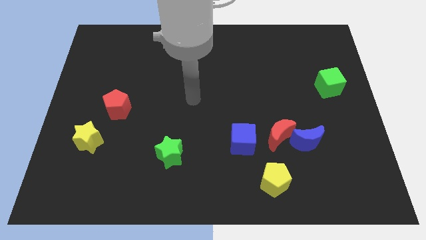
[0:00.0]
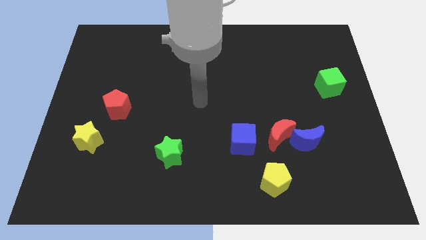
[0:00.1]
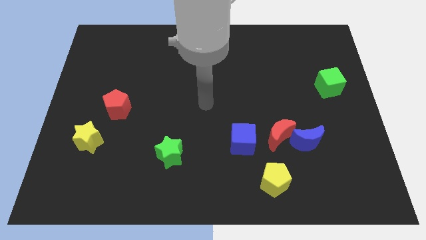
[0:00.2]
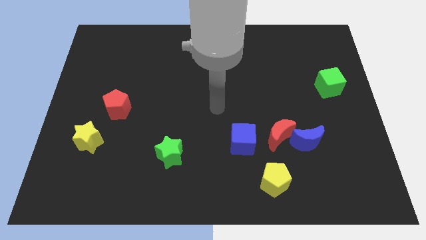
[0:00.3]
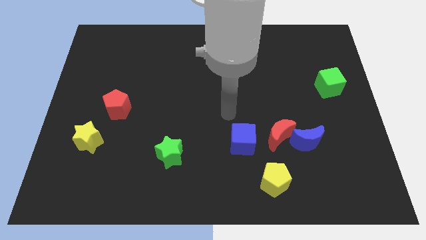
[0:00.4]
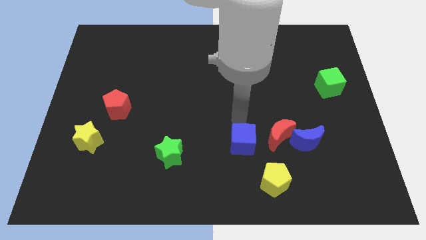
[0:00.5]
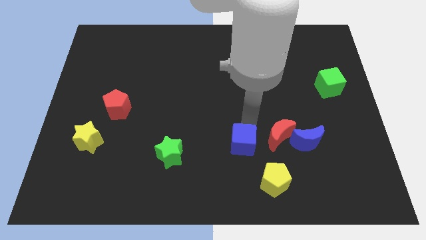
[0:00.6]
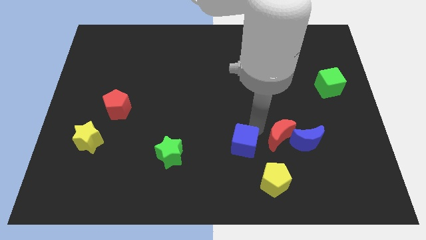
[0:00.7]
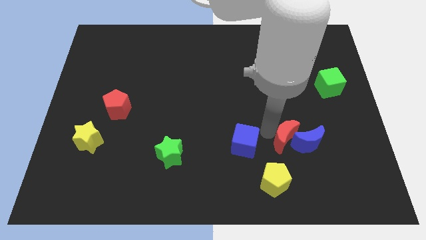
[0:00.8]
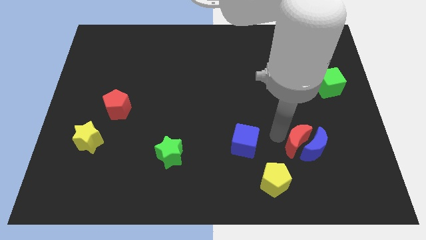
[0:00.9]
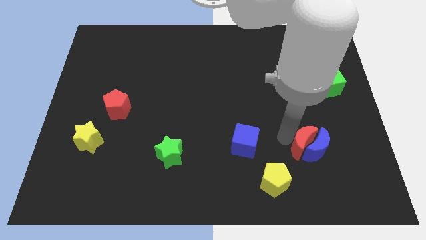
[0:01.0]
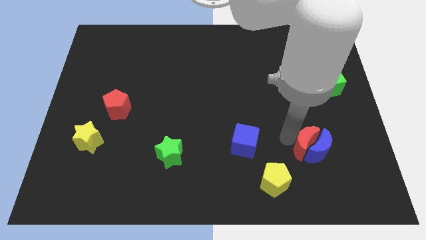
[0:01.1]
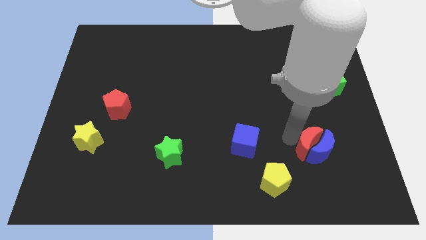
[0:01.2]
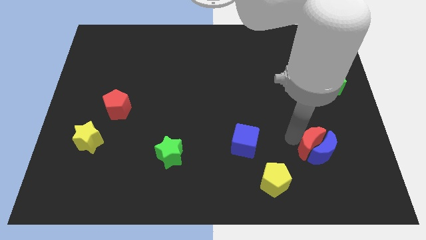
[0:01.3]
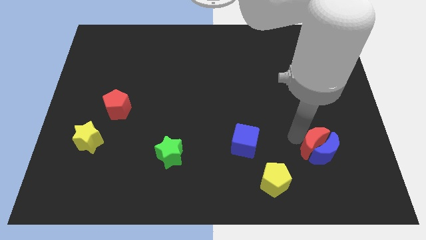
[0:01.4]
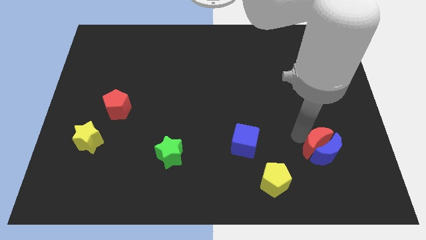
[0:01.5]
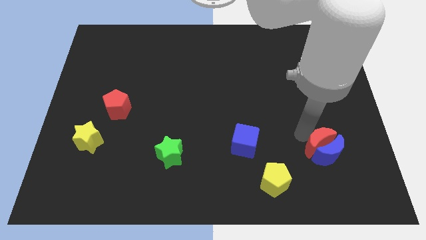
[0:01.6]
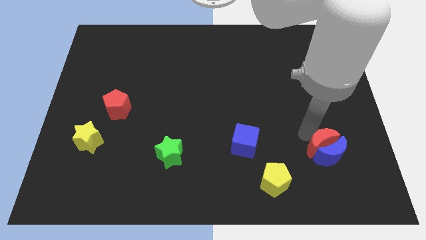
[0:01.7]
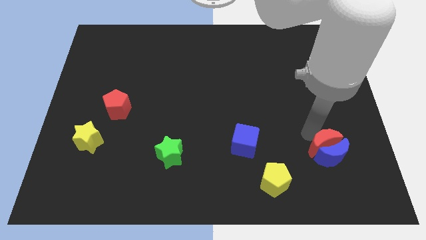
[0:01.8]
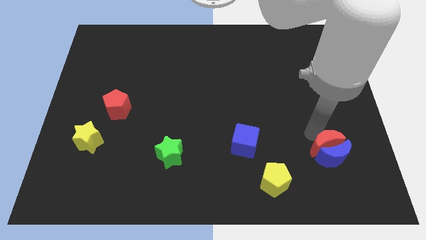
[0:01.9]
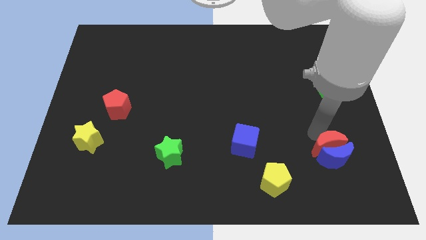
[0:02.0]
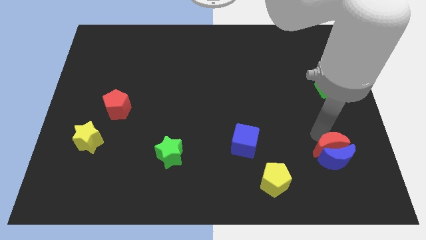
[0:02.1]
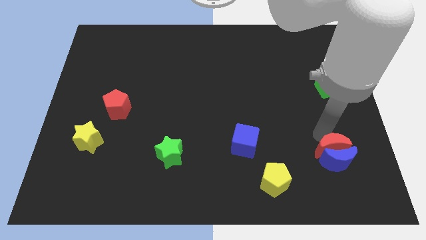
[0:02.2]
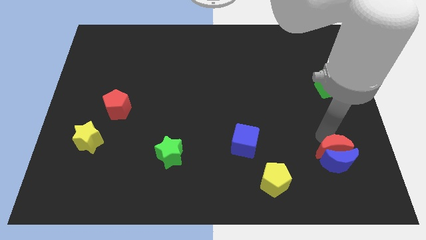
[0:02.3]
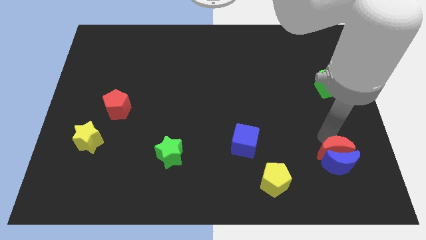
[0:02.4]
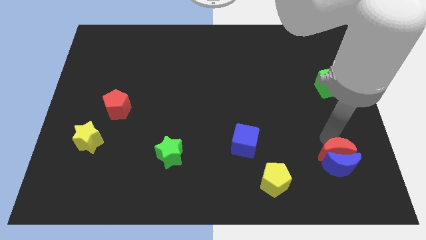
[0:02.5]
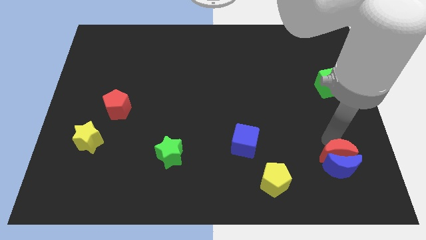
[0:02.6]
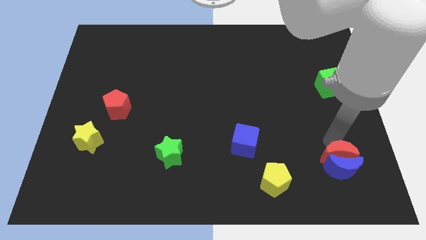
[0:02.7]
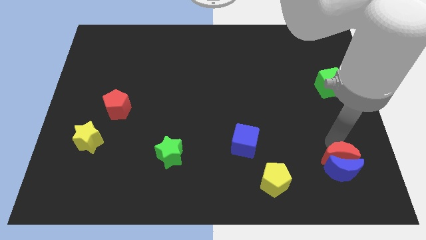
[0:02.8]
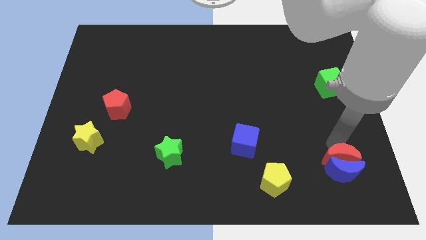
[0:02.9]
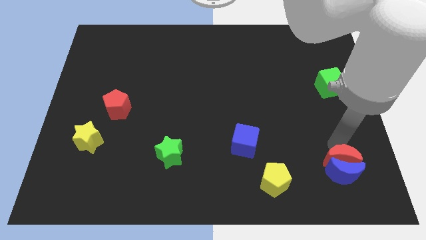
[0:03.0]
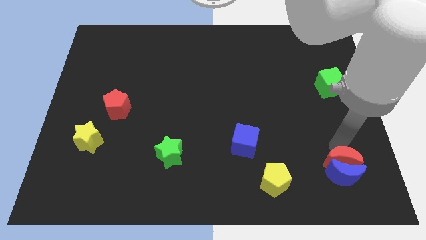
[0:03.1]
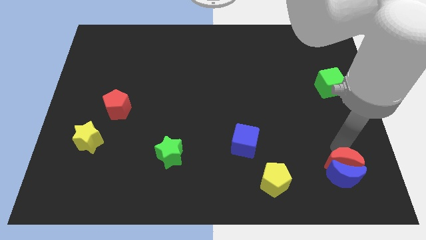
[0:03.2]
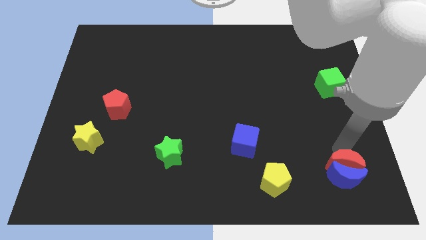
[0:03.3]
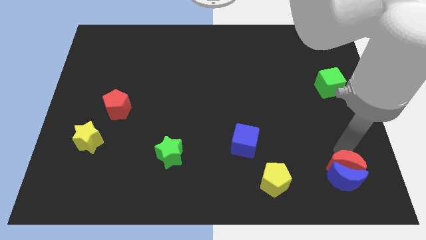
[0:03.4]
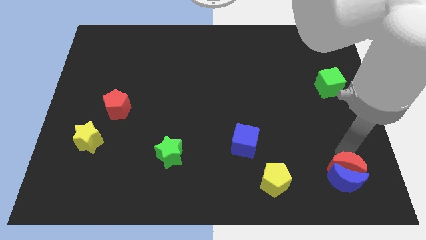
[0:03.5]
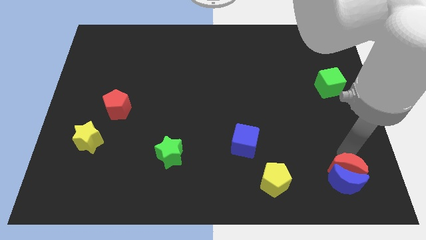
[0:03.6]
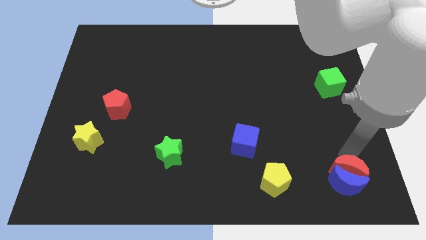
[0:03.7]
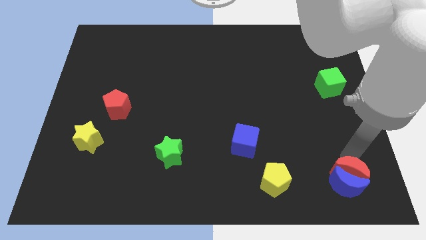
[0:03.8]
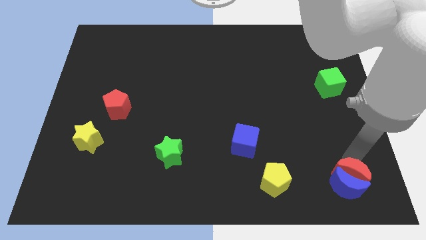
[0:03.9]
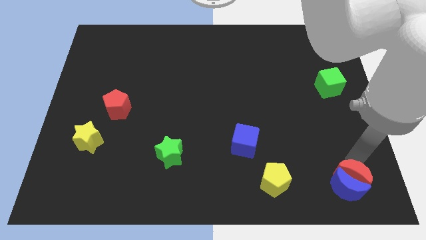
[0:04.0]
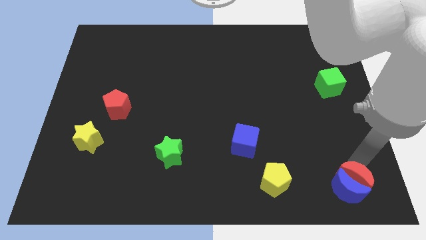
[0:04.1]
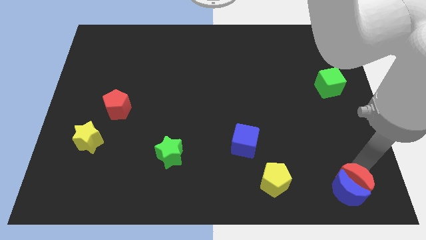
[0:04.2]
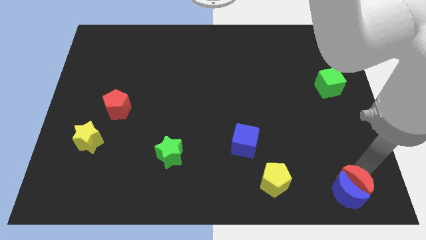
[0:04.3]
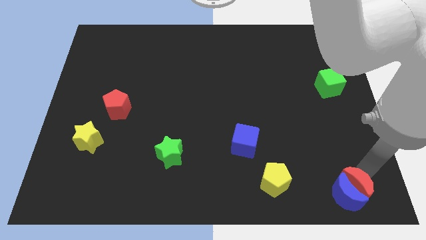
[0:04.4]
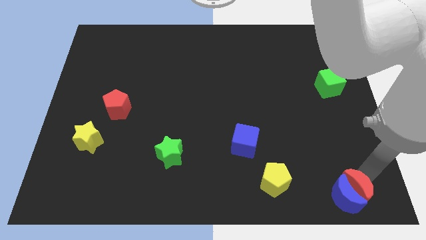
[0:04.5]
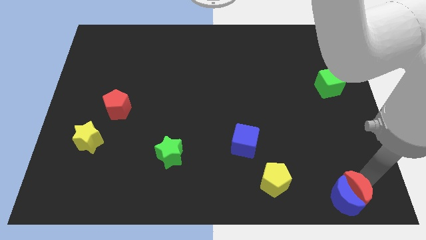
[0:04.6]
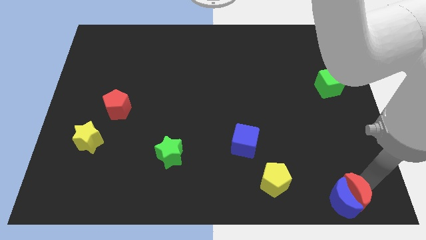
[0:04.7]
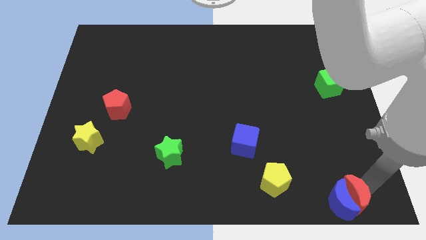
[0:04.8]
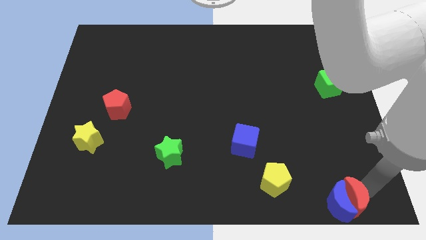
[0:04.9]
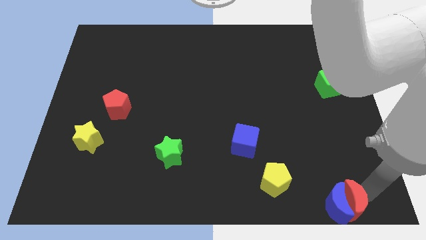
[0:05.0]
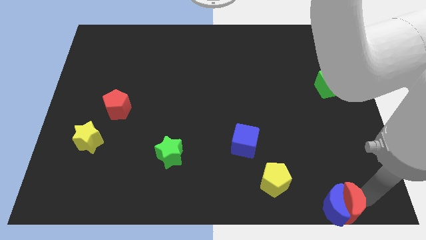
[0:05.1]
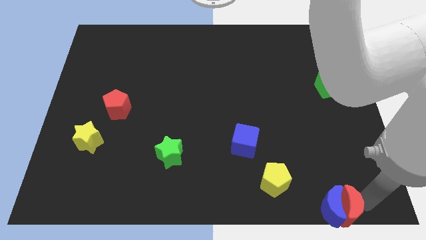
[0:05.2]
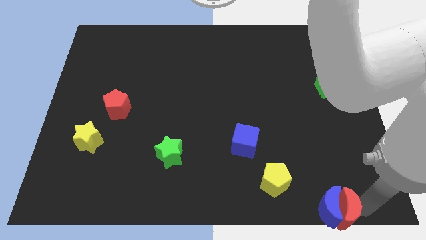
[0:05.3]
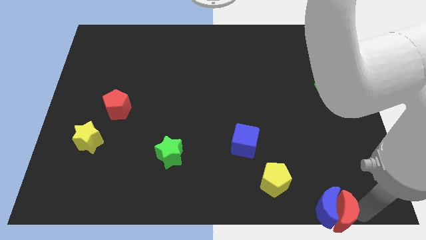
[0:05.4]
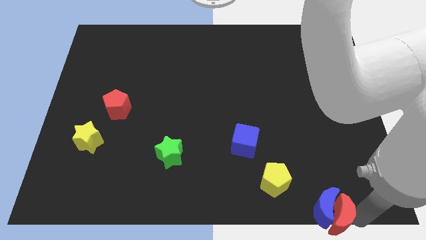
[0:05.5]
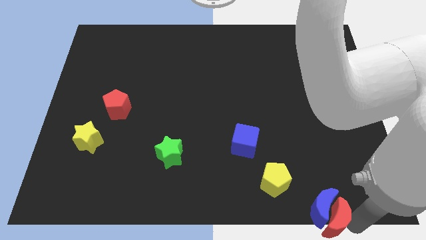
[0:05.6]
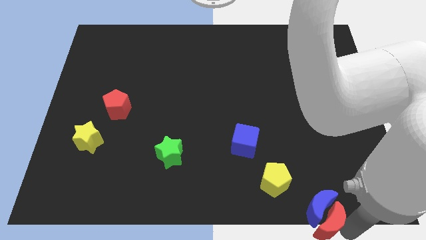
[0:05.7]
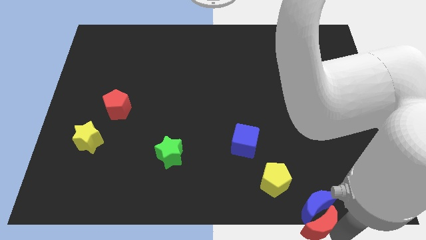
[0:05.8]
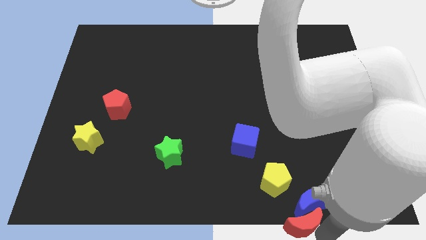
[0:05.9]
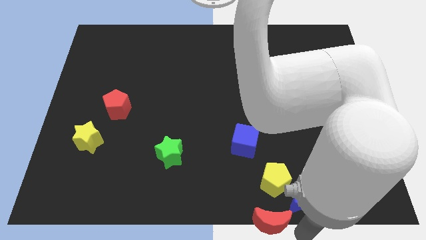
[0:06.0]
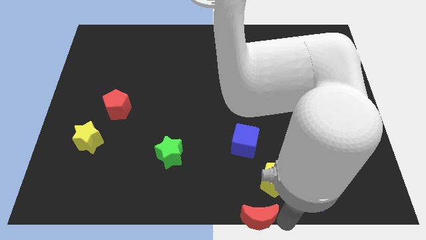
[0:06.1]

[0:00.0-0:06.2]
separate the blue moon from the red moon

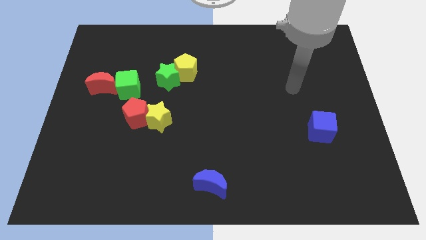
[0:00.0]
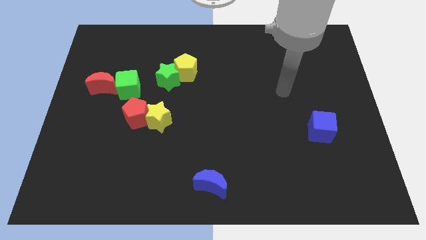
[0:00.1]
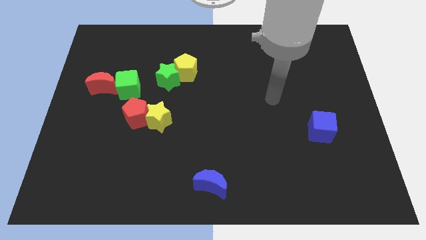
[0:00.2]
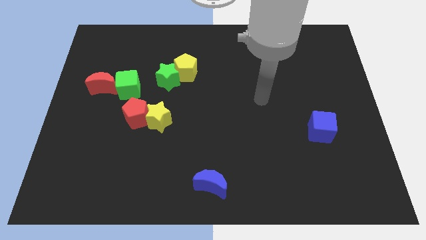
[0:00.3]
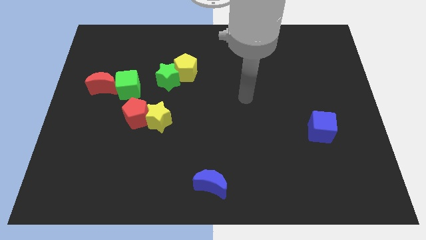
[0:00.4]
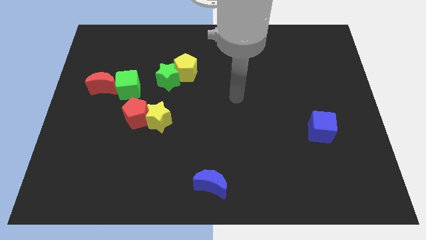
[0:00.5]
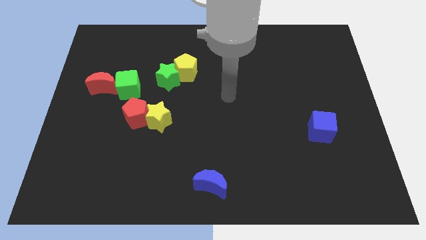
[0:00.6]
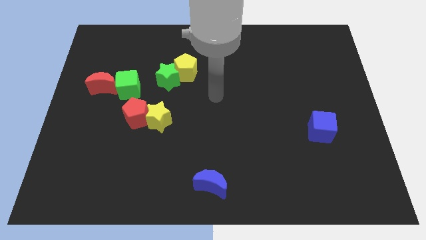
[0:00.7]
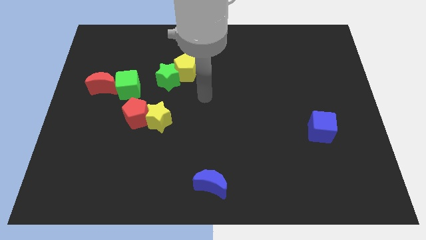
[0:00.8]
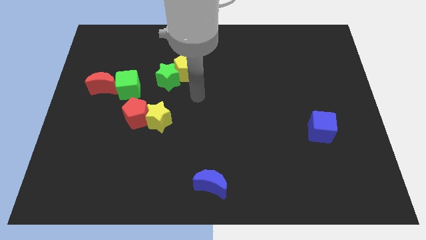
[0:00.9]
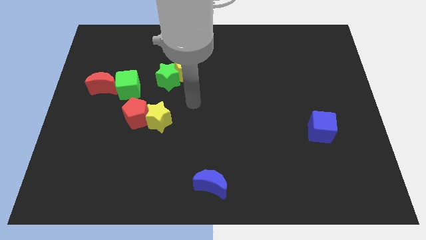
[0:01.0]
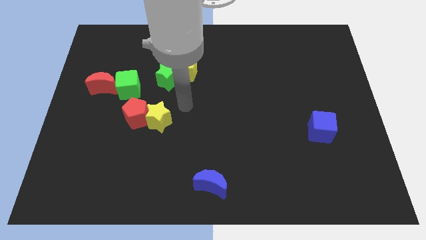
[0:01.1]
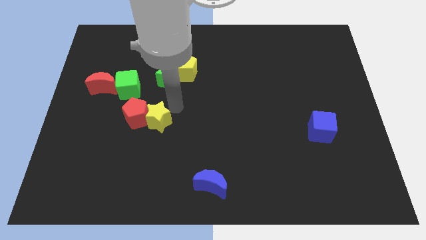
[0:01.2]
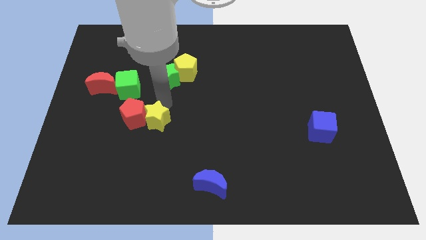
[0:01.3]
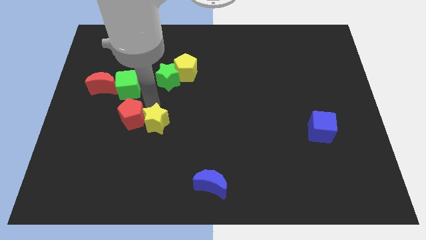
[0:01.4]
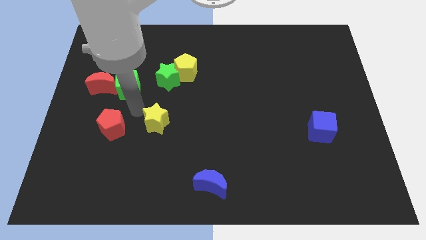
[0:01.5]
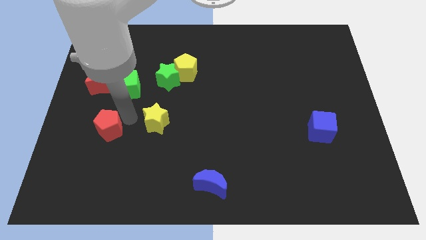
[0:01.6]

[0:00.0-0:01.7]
pull the yellow star apart from the red pentagon

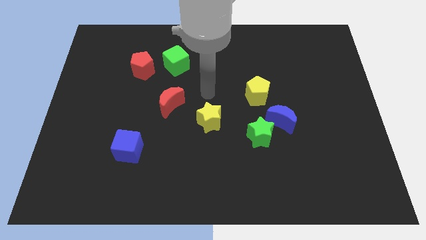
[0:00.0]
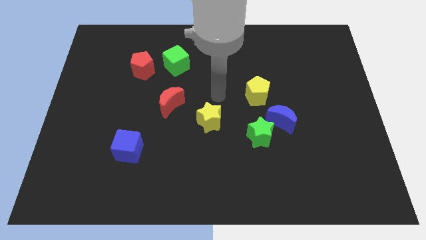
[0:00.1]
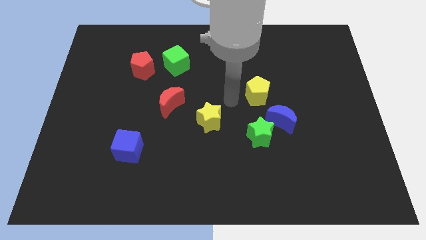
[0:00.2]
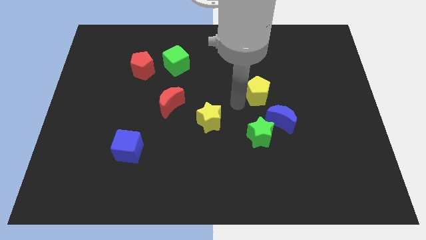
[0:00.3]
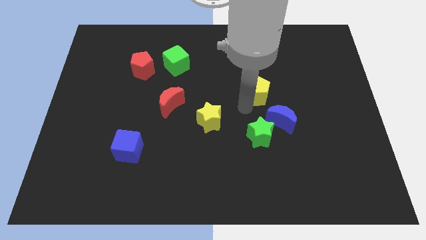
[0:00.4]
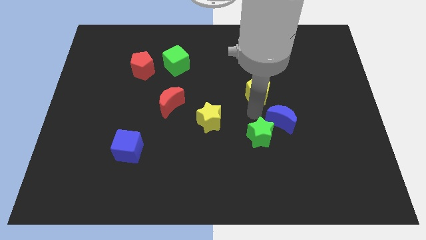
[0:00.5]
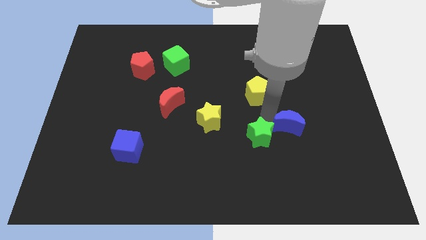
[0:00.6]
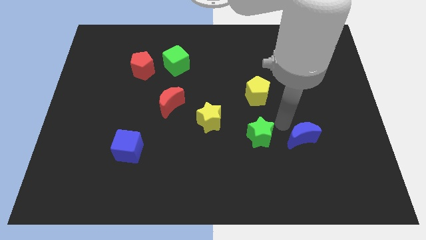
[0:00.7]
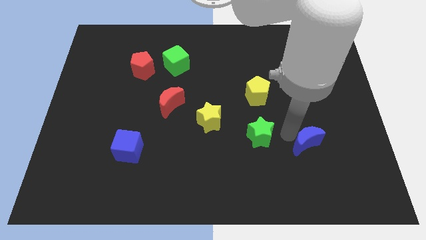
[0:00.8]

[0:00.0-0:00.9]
separate the green star from the blue moon

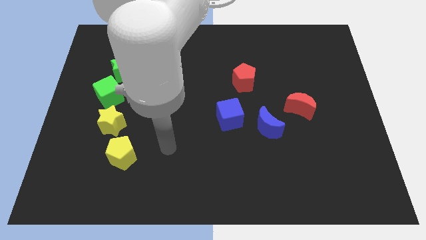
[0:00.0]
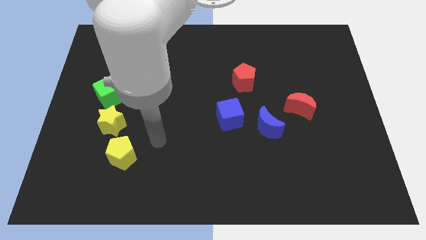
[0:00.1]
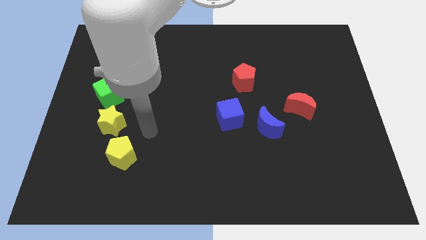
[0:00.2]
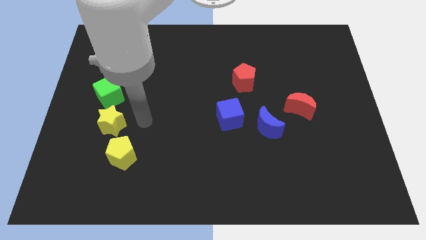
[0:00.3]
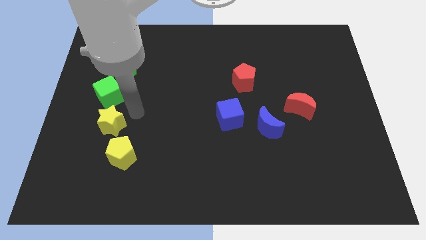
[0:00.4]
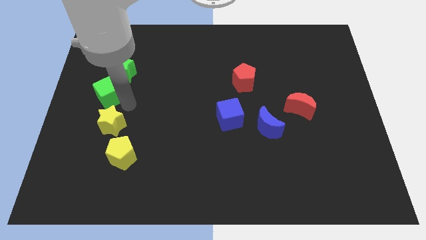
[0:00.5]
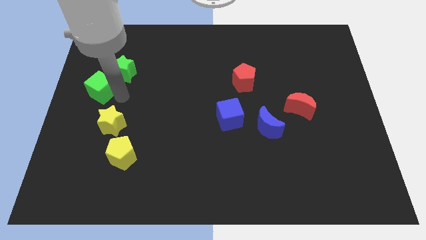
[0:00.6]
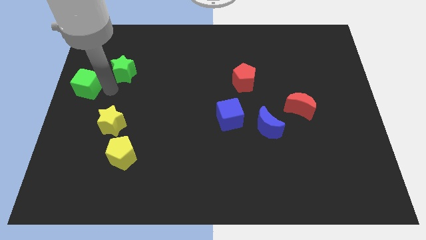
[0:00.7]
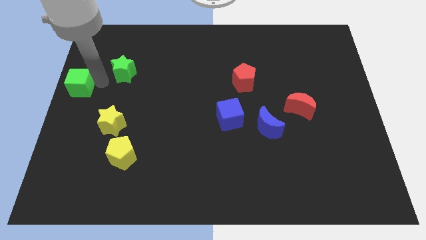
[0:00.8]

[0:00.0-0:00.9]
separate the green star from the green cube
